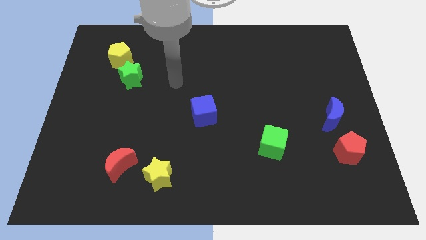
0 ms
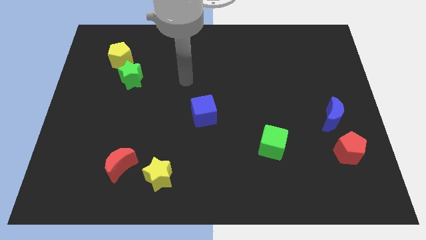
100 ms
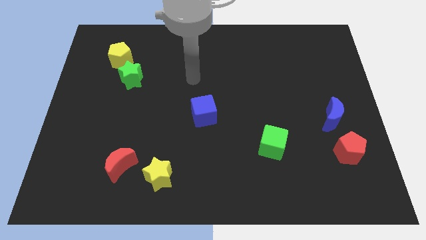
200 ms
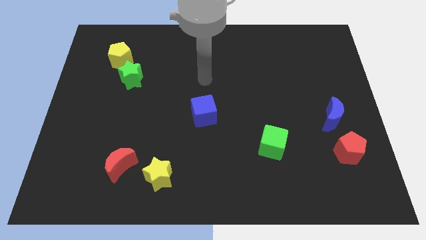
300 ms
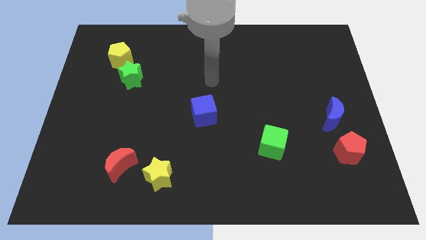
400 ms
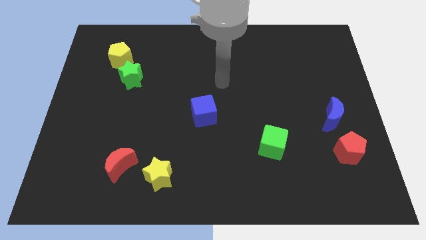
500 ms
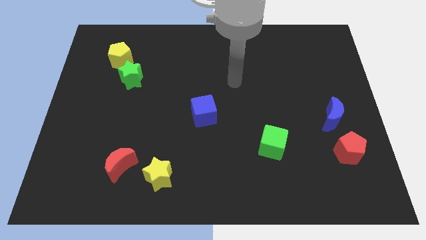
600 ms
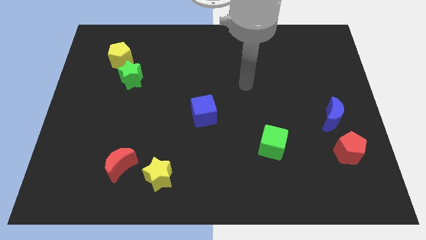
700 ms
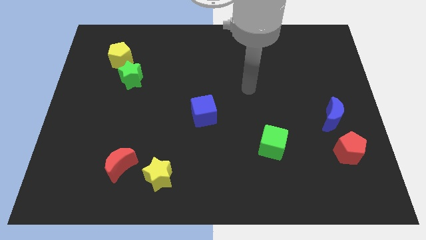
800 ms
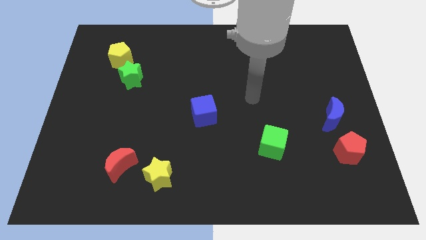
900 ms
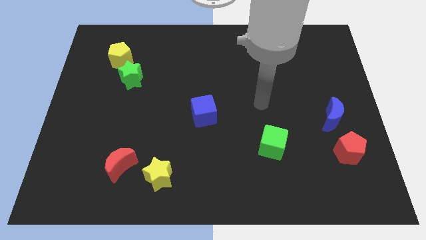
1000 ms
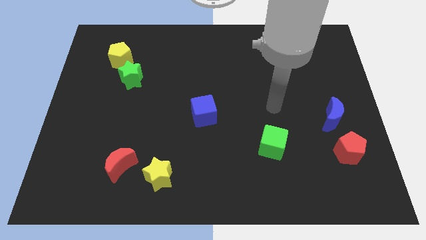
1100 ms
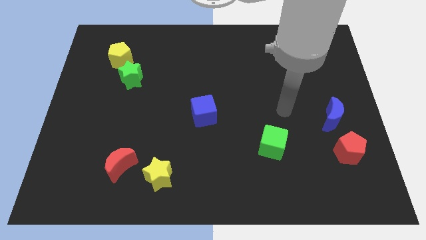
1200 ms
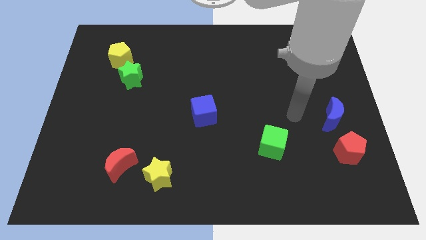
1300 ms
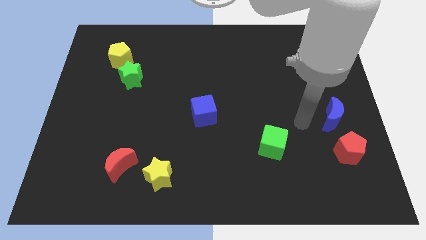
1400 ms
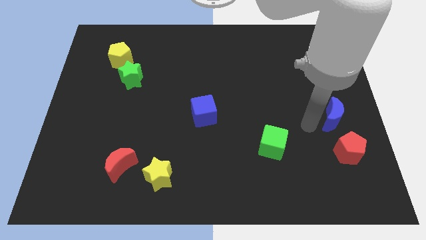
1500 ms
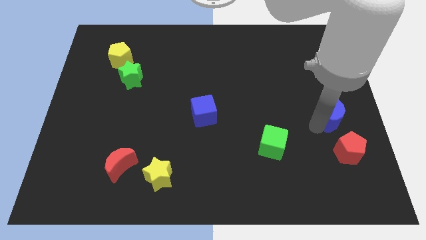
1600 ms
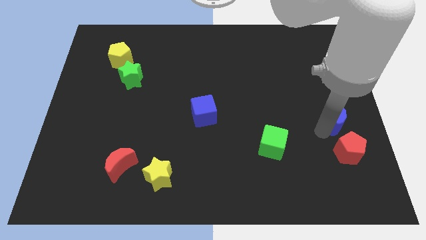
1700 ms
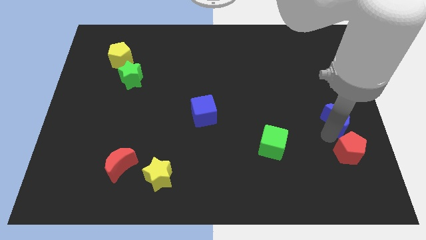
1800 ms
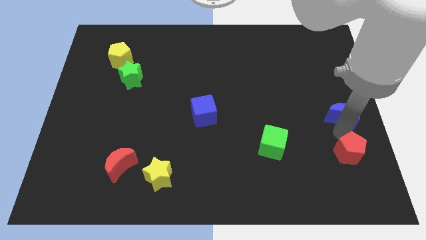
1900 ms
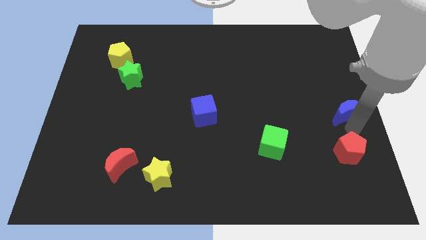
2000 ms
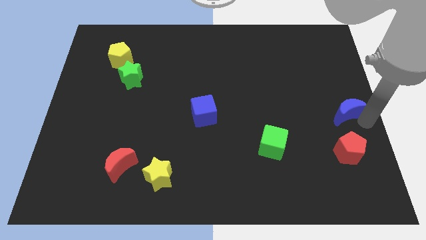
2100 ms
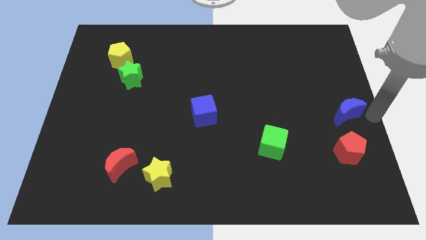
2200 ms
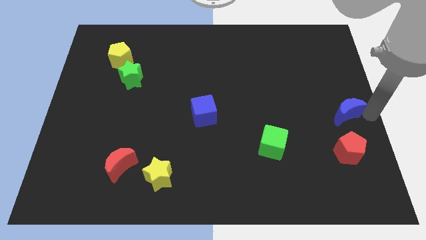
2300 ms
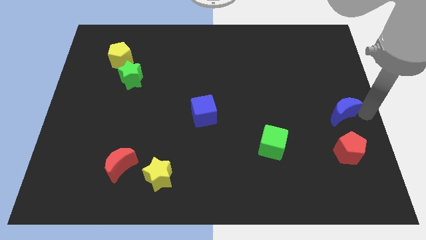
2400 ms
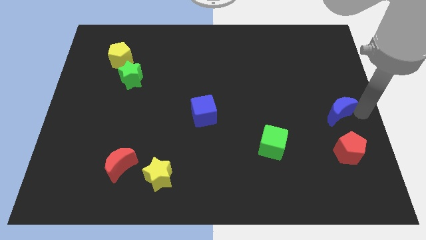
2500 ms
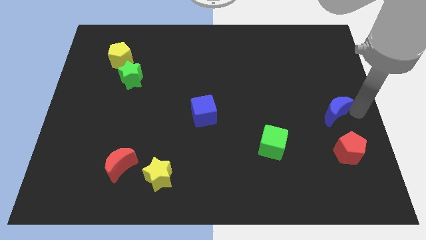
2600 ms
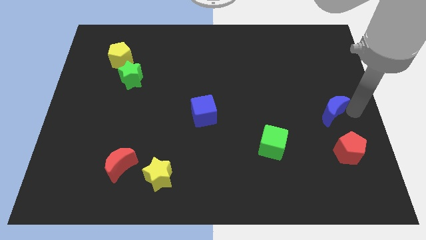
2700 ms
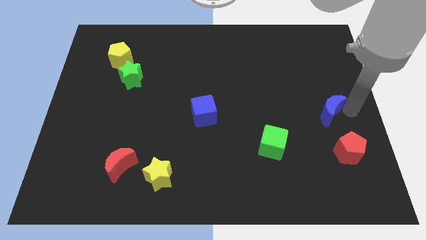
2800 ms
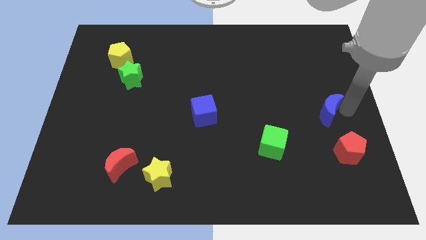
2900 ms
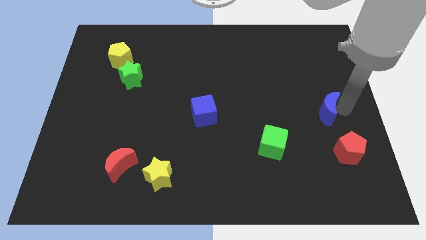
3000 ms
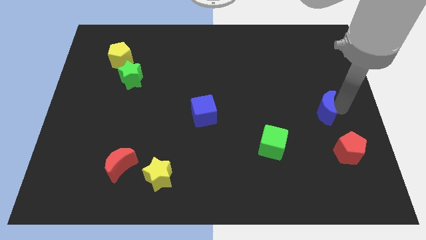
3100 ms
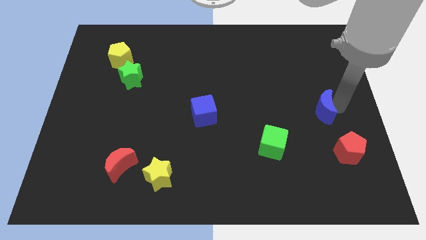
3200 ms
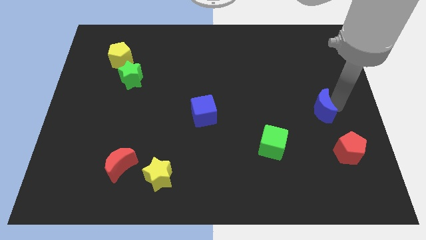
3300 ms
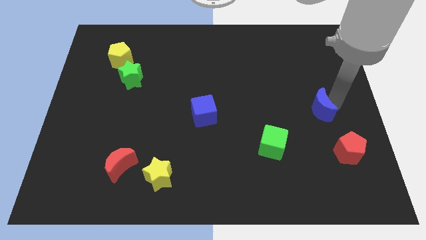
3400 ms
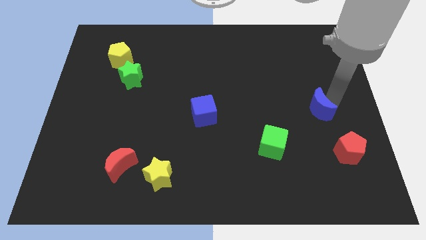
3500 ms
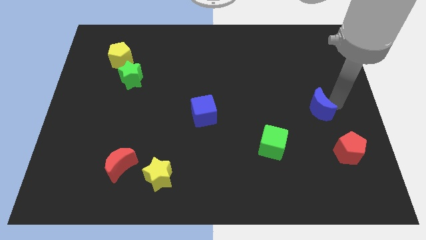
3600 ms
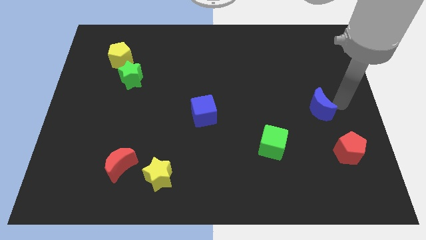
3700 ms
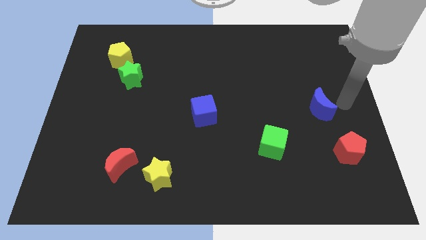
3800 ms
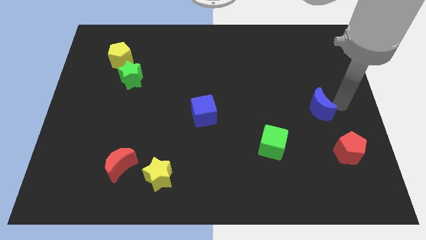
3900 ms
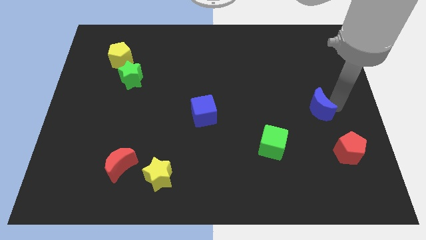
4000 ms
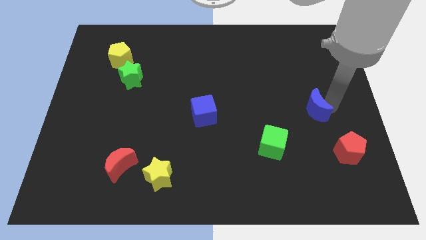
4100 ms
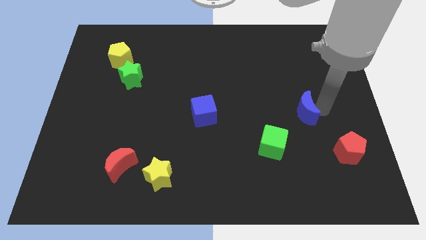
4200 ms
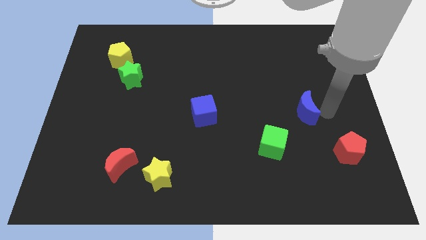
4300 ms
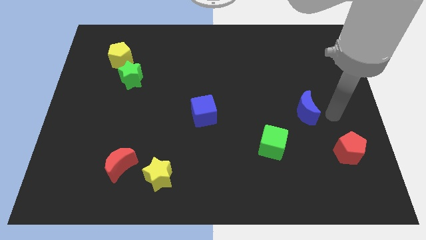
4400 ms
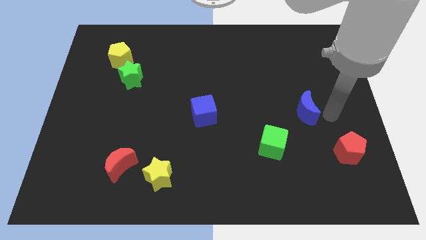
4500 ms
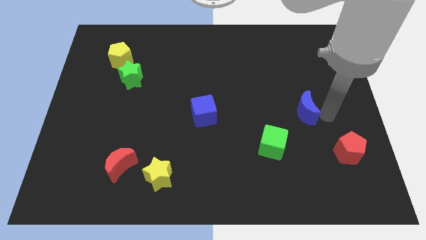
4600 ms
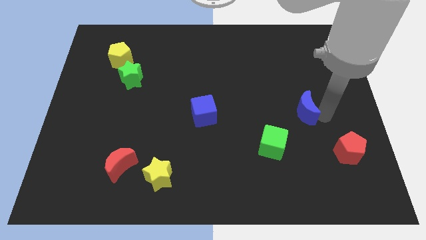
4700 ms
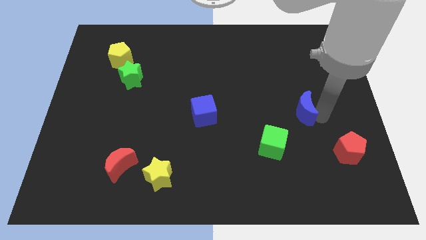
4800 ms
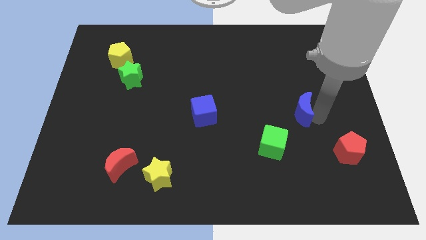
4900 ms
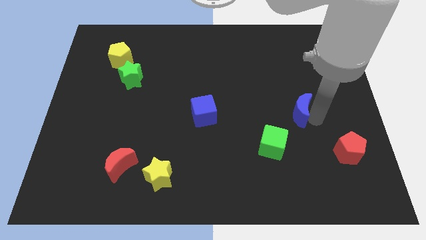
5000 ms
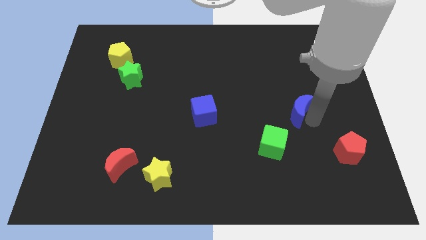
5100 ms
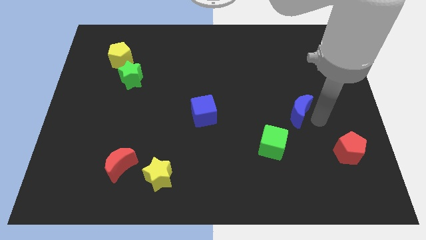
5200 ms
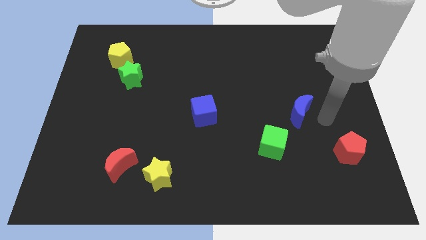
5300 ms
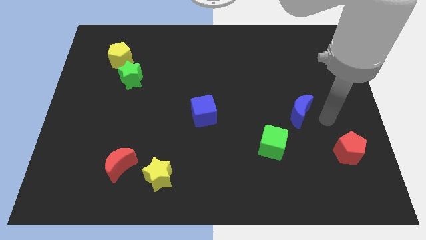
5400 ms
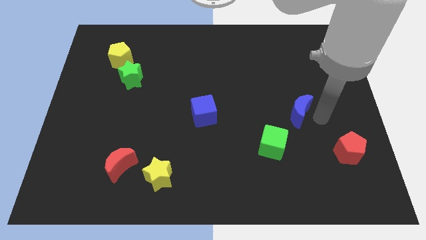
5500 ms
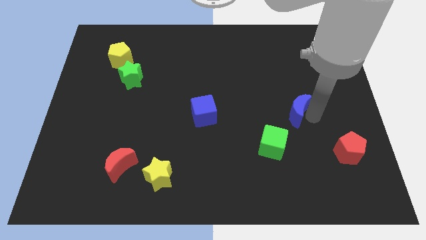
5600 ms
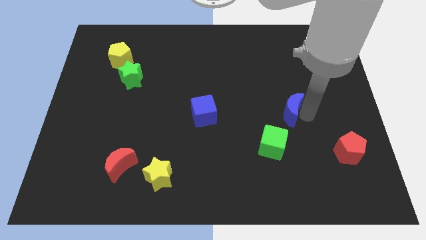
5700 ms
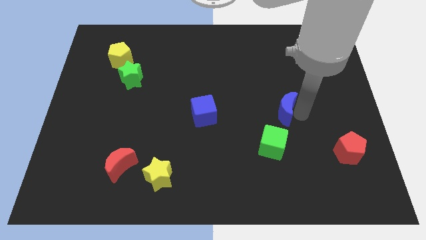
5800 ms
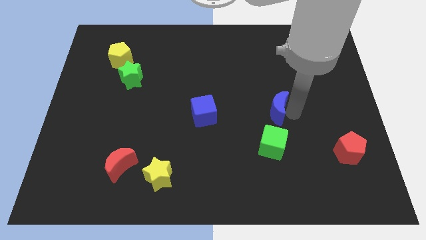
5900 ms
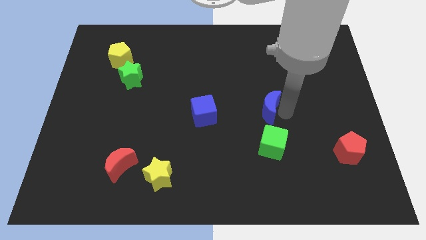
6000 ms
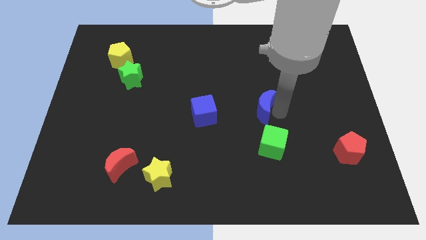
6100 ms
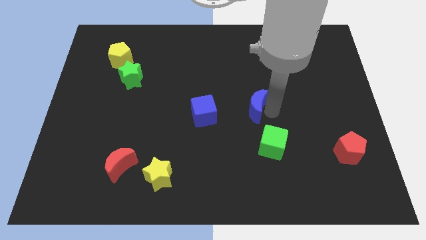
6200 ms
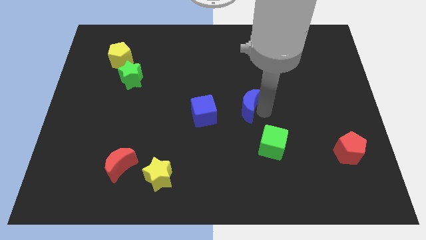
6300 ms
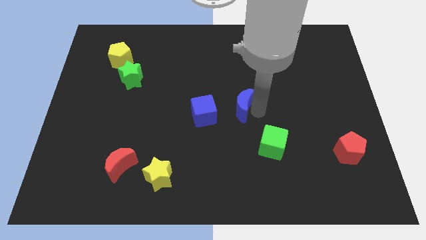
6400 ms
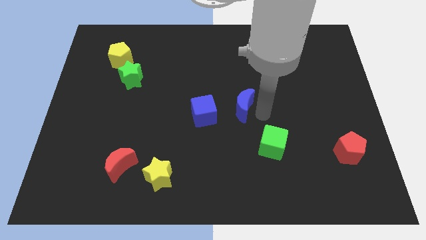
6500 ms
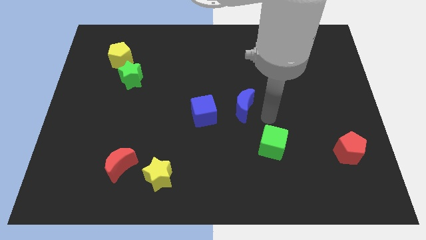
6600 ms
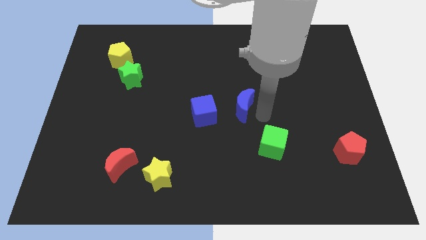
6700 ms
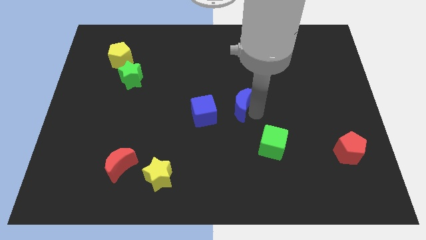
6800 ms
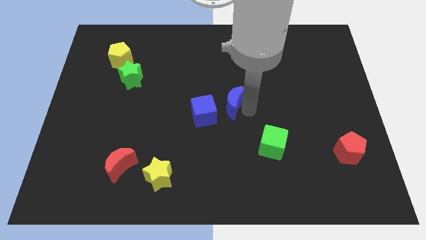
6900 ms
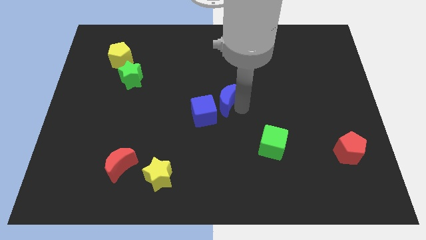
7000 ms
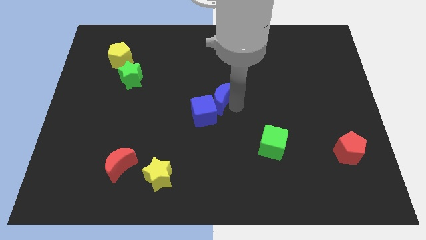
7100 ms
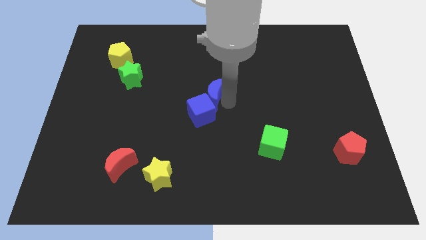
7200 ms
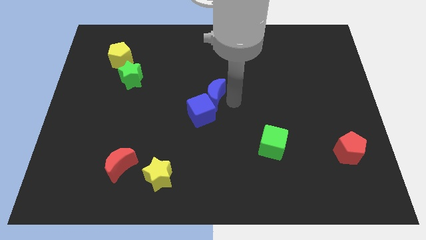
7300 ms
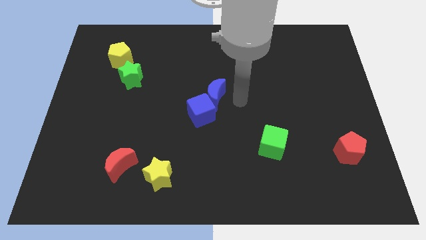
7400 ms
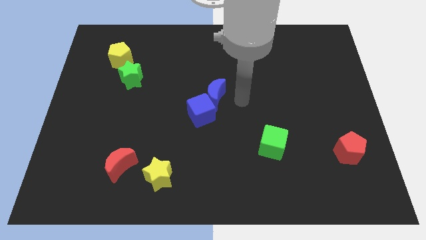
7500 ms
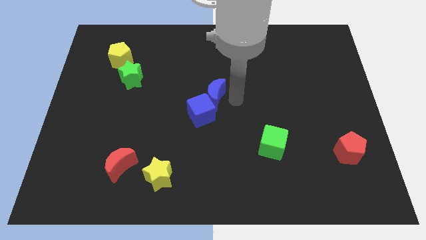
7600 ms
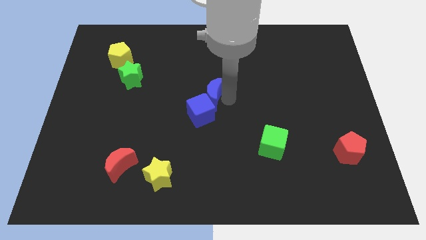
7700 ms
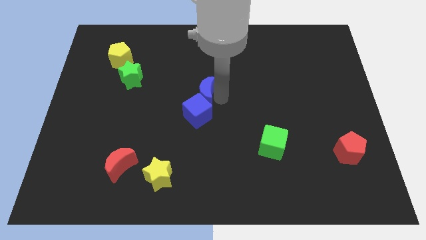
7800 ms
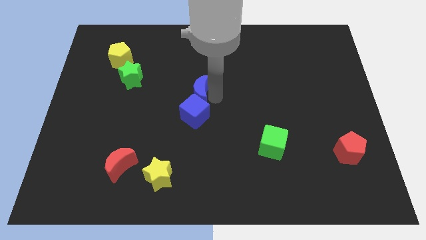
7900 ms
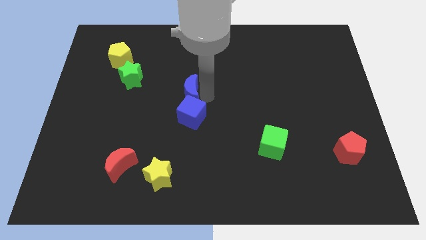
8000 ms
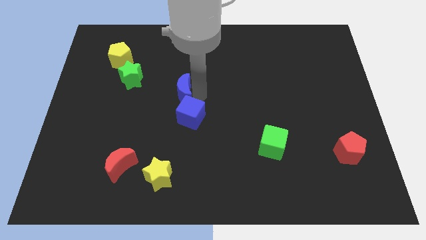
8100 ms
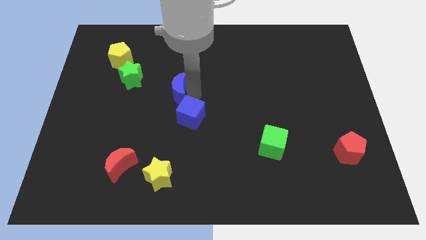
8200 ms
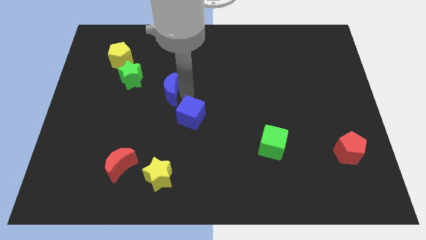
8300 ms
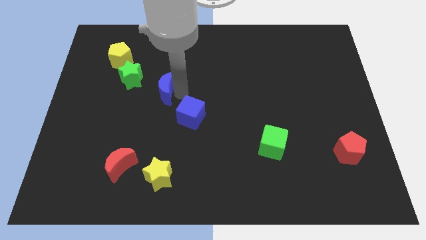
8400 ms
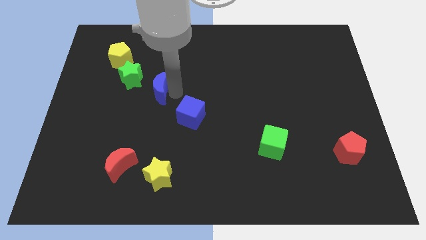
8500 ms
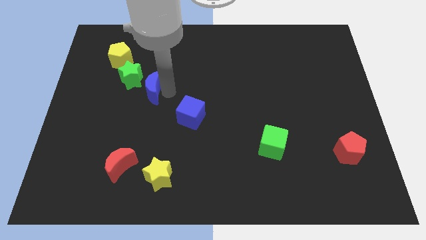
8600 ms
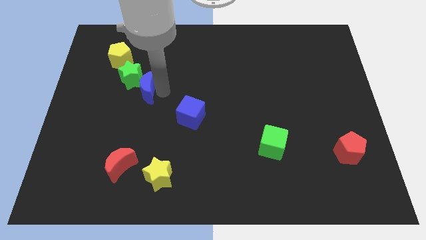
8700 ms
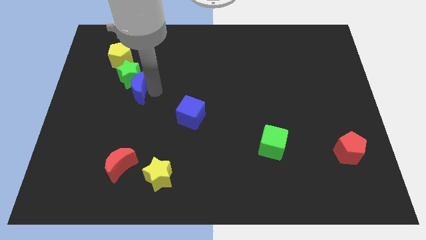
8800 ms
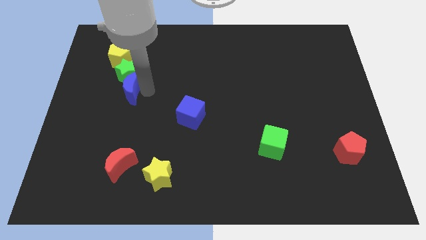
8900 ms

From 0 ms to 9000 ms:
push the blue moon below the yellow pentagon
